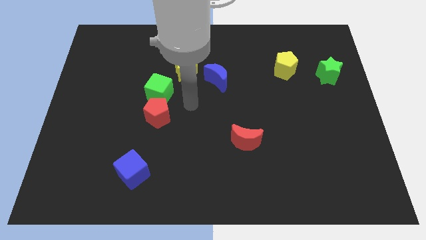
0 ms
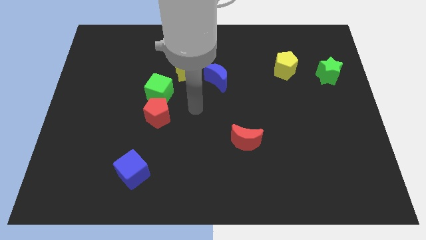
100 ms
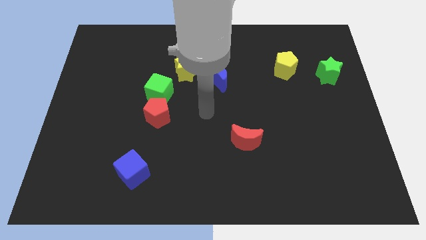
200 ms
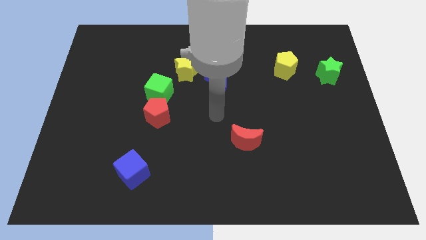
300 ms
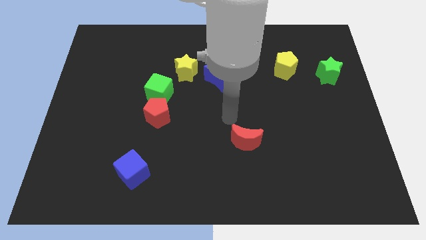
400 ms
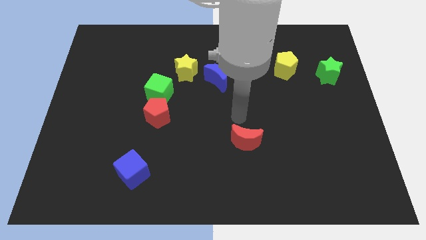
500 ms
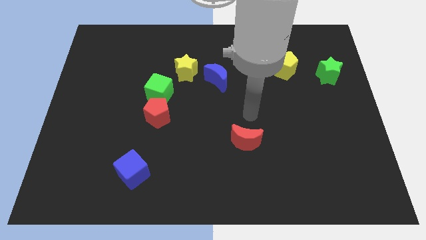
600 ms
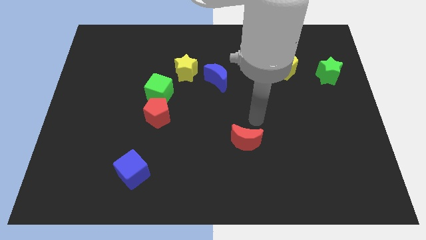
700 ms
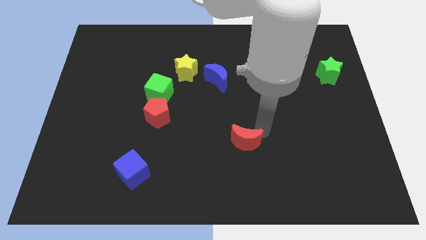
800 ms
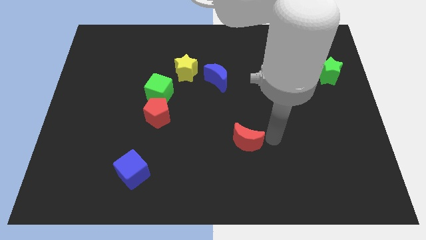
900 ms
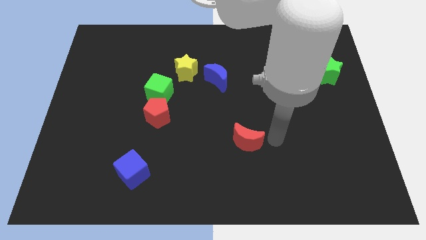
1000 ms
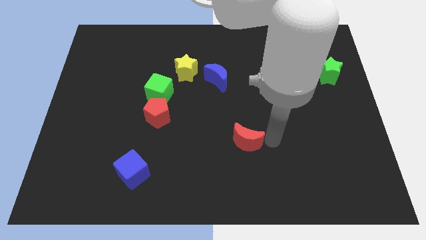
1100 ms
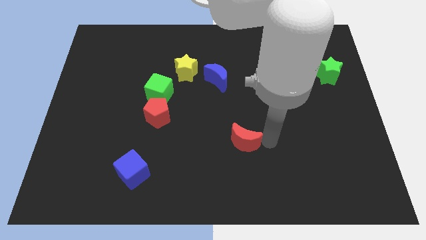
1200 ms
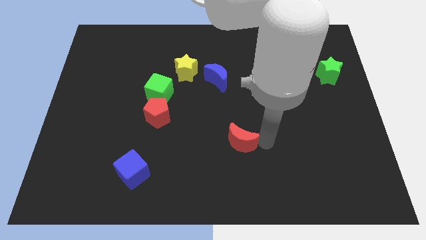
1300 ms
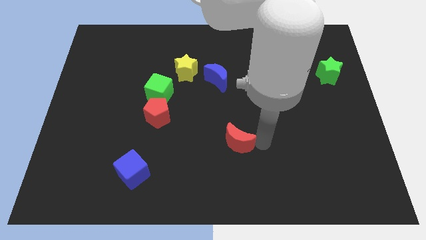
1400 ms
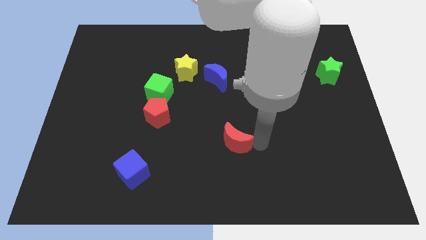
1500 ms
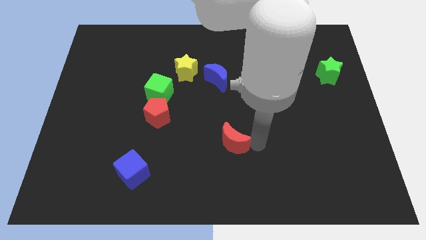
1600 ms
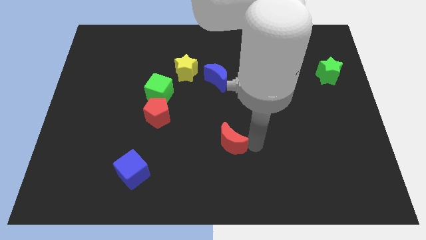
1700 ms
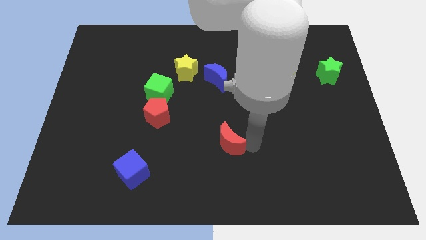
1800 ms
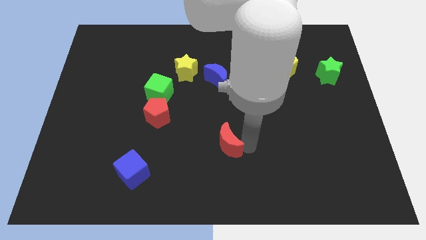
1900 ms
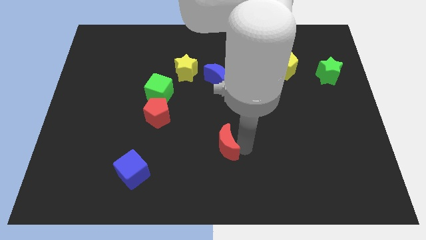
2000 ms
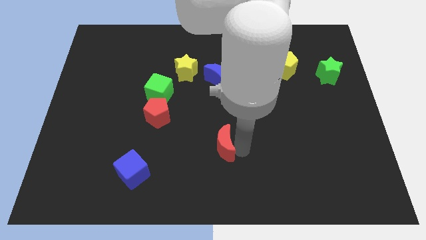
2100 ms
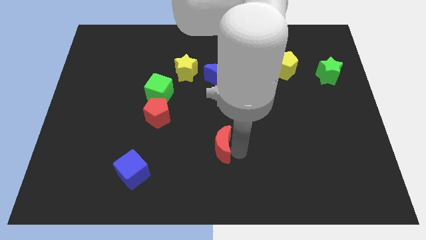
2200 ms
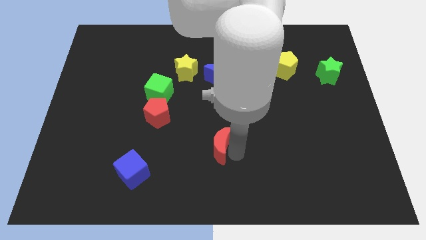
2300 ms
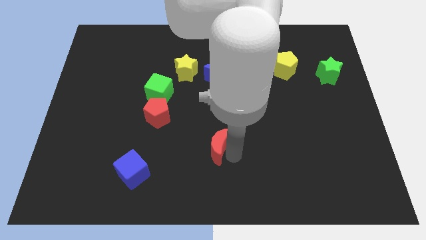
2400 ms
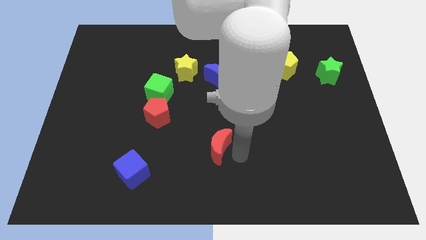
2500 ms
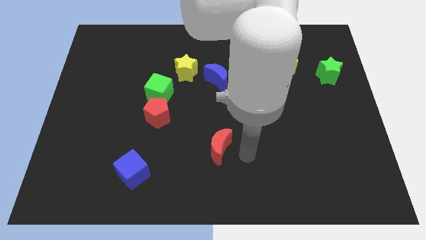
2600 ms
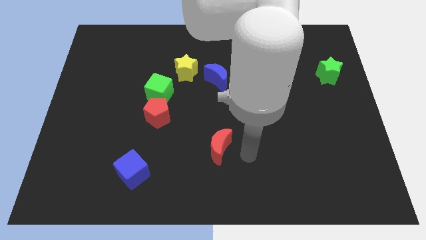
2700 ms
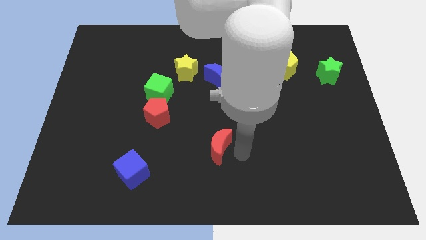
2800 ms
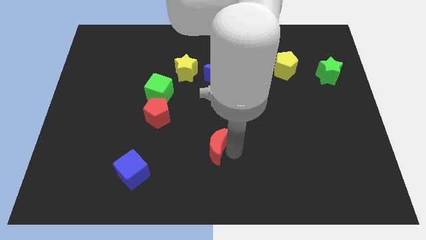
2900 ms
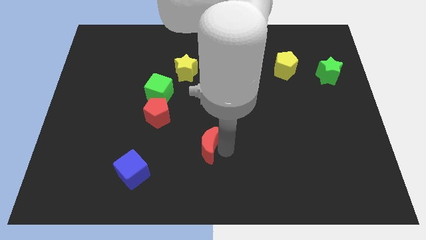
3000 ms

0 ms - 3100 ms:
slightly slide the red moon left

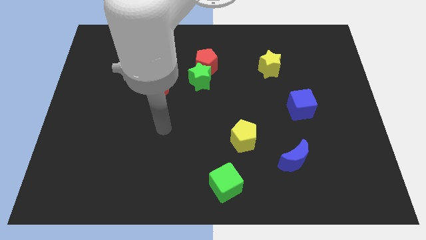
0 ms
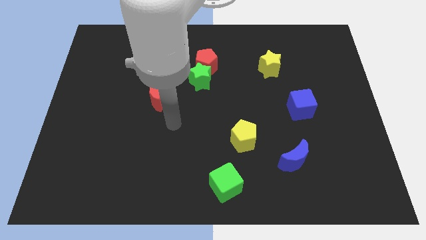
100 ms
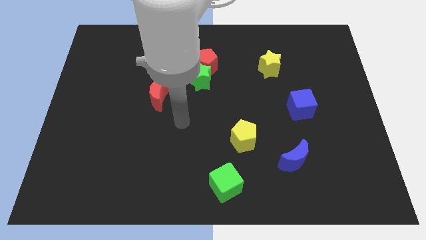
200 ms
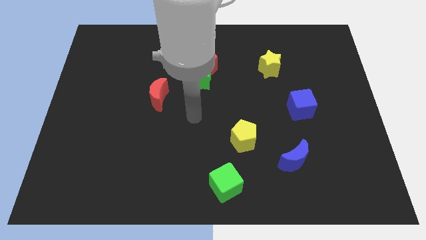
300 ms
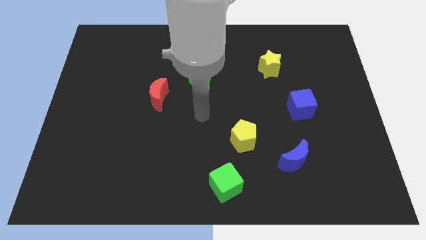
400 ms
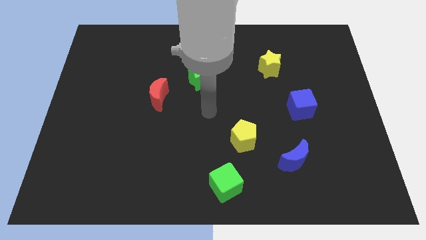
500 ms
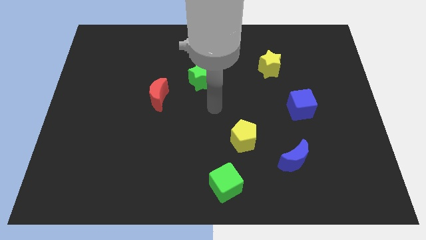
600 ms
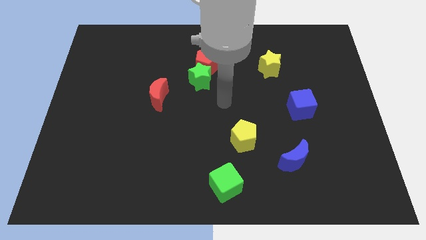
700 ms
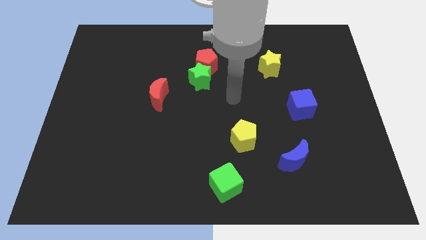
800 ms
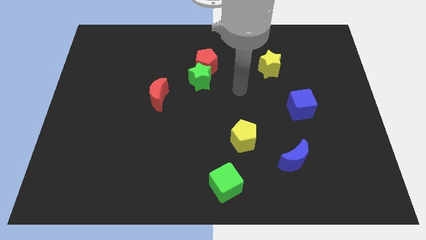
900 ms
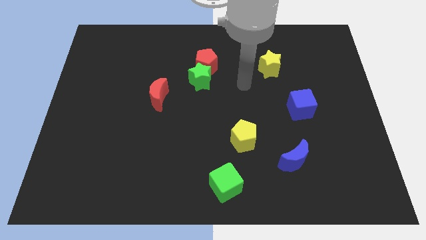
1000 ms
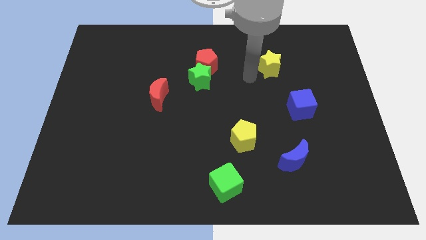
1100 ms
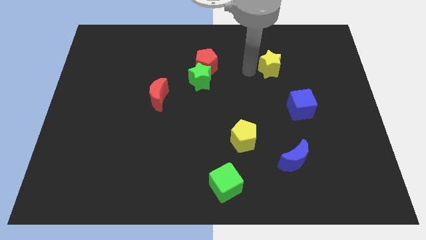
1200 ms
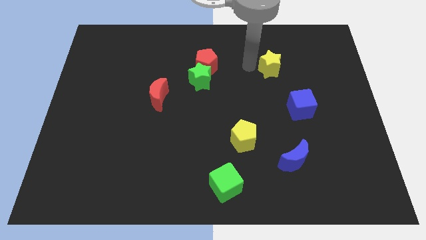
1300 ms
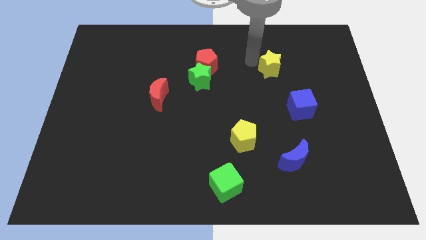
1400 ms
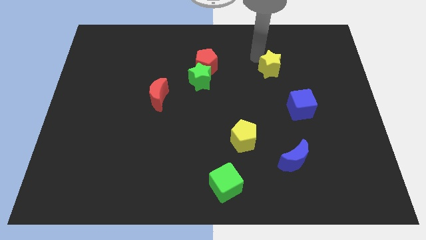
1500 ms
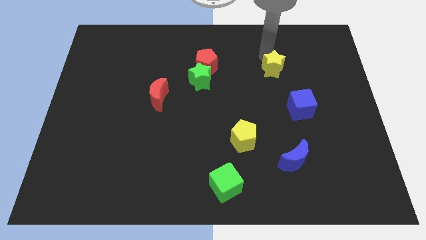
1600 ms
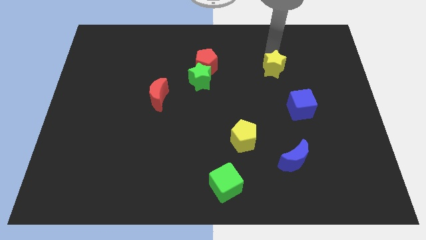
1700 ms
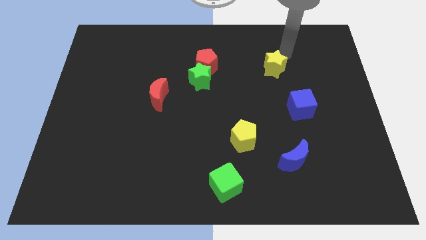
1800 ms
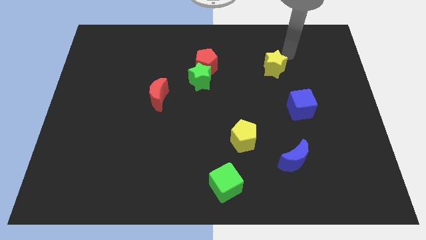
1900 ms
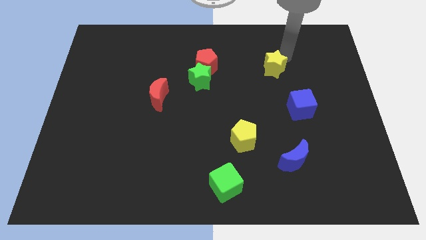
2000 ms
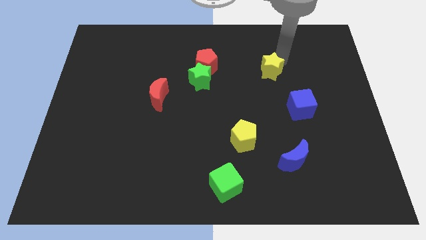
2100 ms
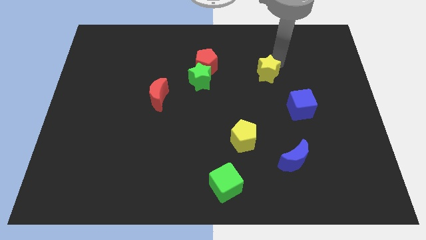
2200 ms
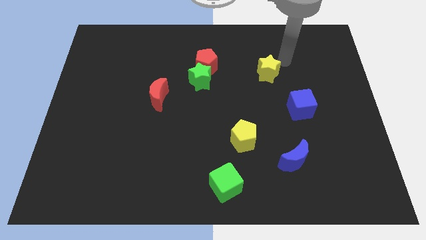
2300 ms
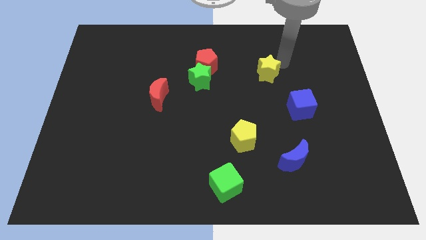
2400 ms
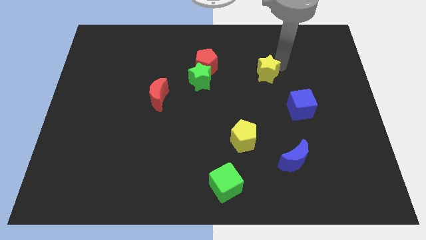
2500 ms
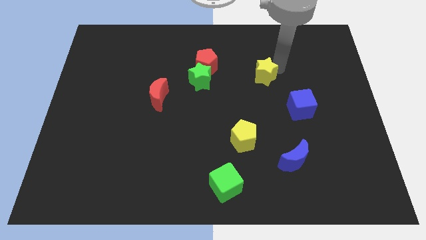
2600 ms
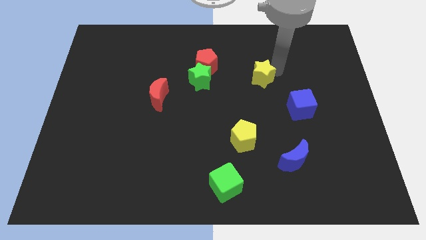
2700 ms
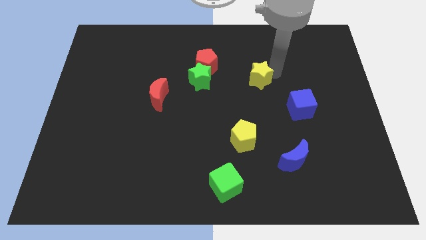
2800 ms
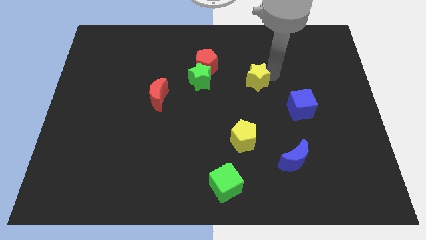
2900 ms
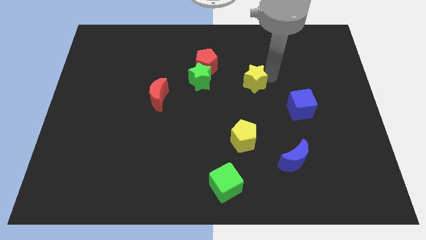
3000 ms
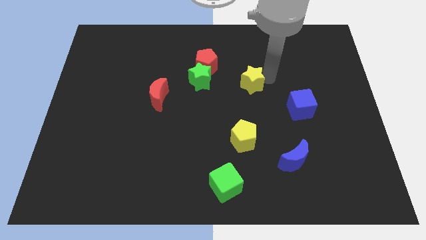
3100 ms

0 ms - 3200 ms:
slightly push the yellow star downwards and to the left diagonally

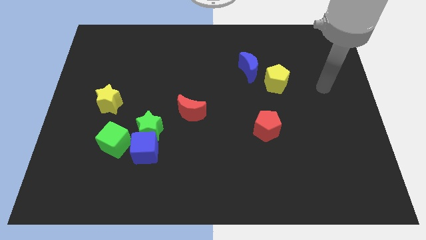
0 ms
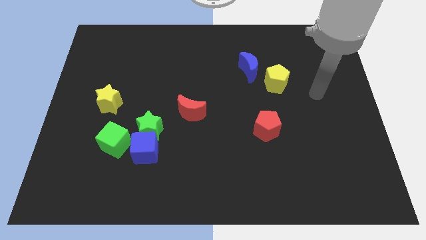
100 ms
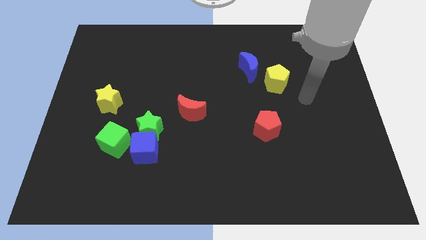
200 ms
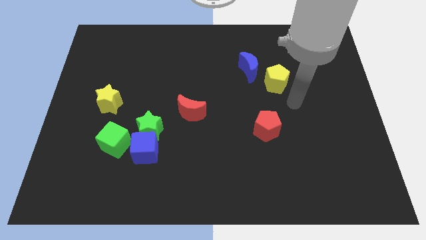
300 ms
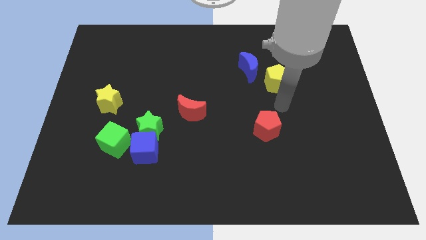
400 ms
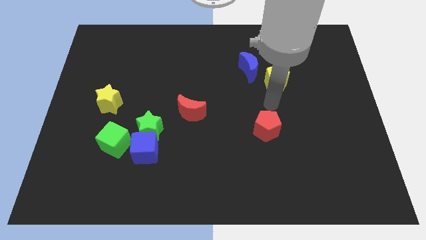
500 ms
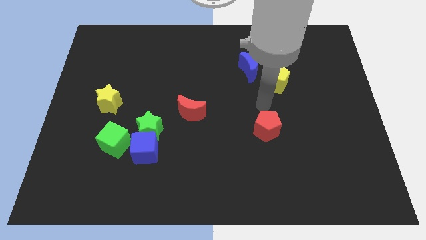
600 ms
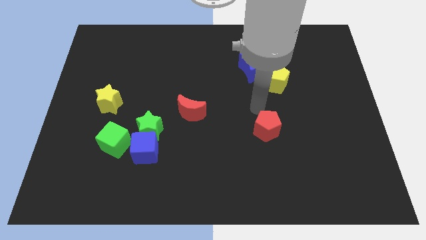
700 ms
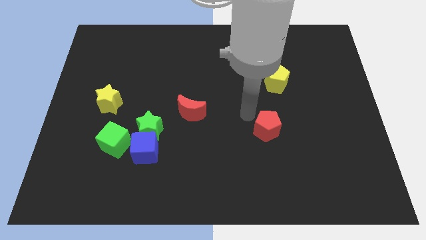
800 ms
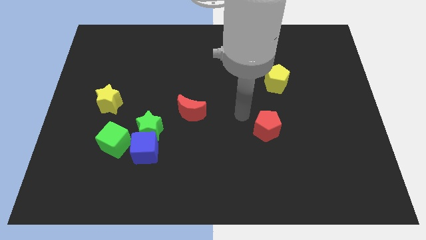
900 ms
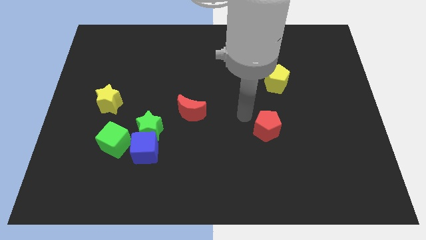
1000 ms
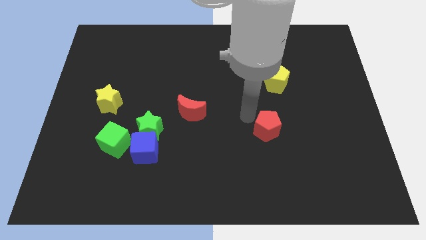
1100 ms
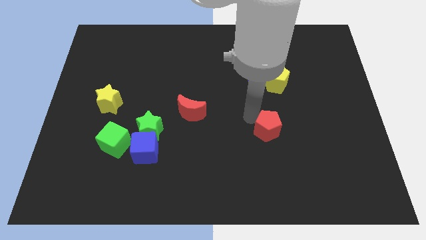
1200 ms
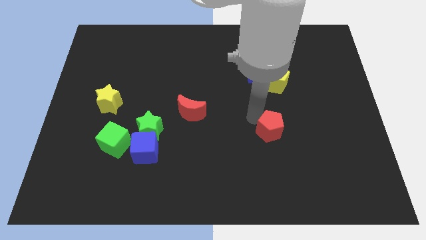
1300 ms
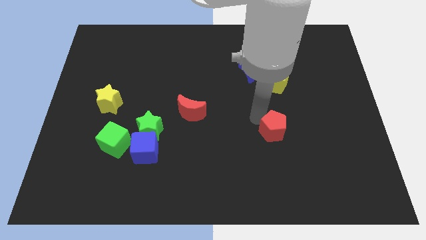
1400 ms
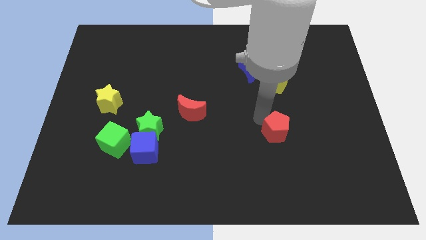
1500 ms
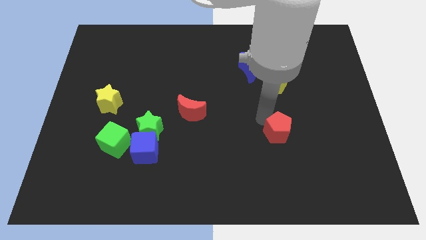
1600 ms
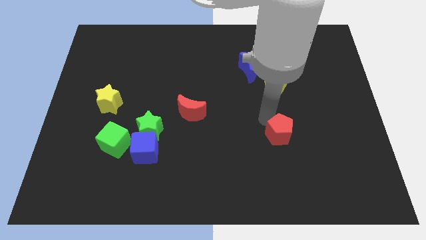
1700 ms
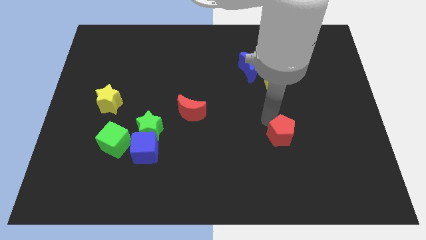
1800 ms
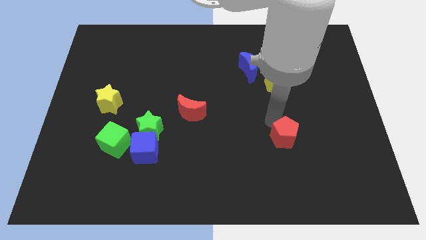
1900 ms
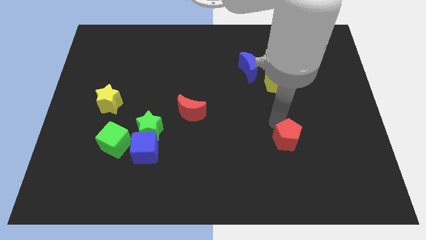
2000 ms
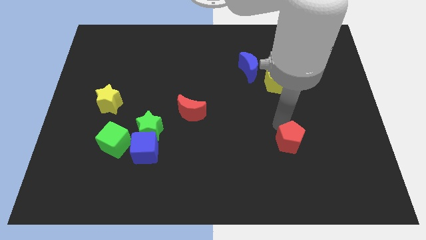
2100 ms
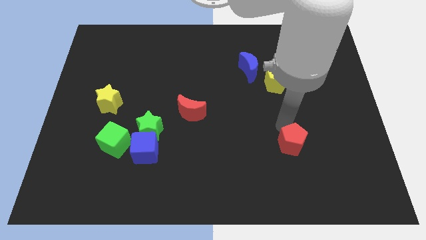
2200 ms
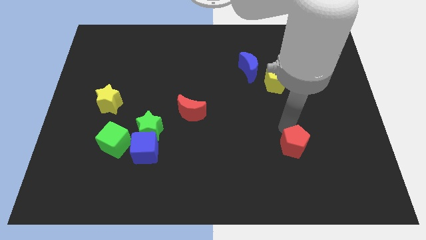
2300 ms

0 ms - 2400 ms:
slightly move the red pentagon downwards and right diagonally
